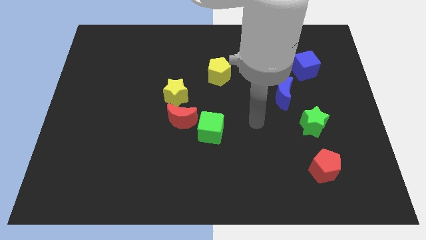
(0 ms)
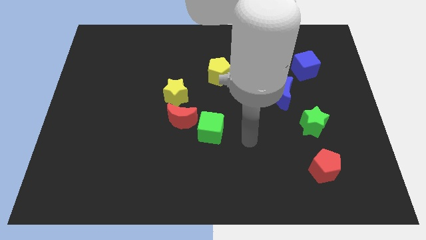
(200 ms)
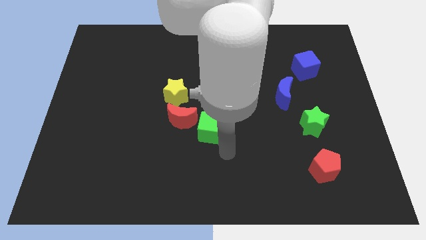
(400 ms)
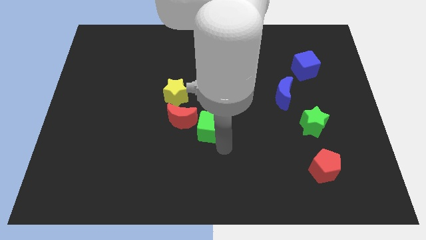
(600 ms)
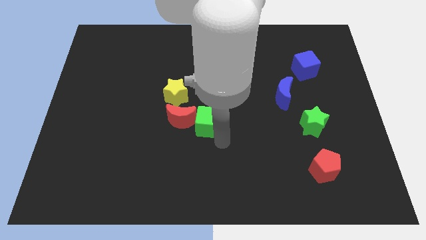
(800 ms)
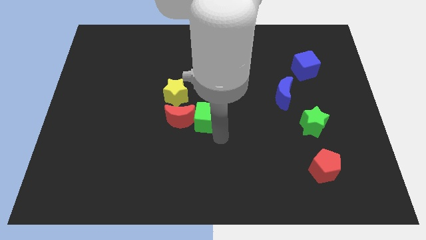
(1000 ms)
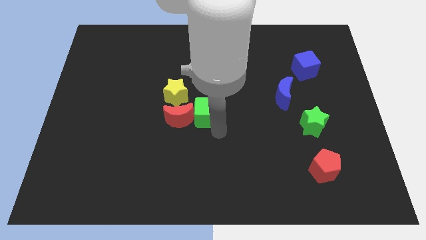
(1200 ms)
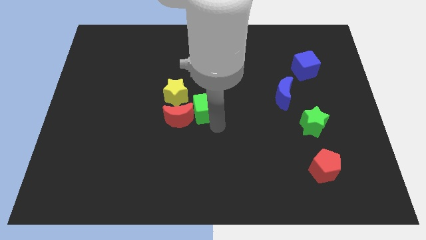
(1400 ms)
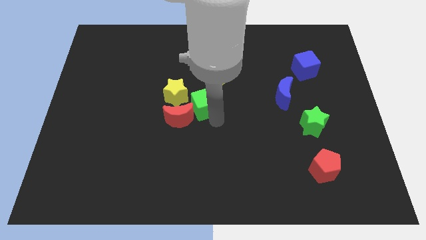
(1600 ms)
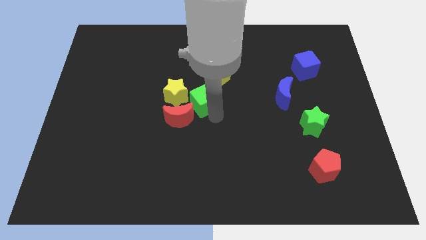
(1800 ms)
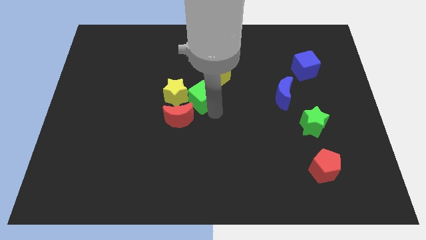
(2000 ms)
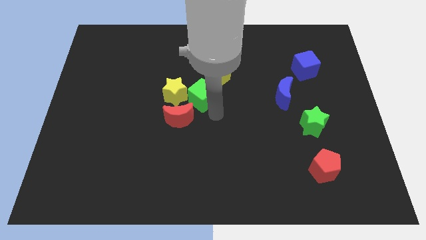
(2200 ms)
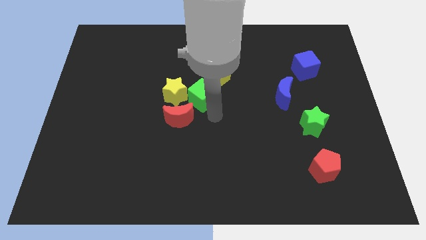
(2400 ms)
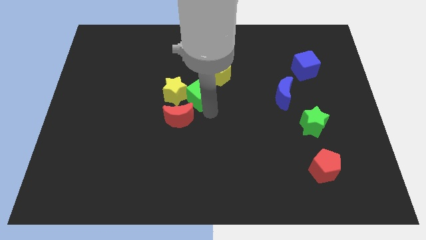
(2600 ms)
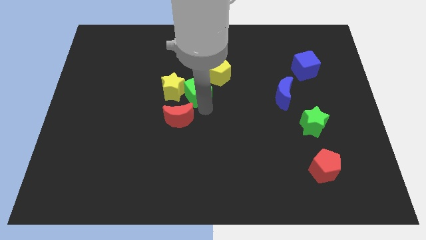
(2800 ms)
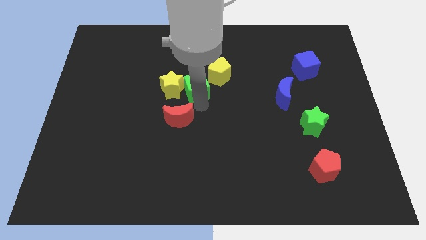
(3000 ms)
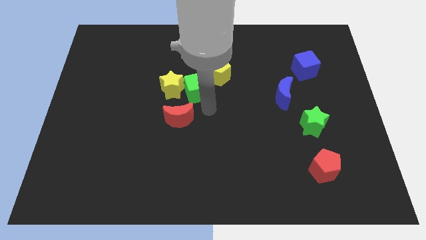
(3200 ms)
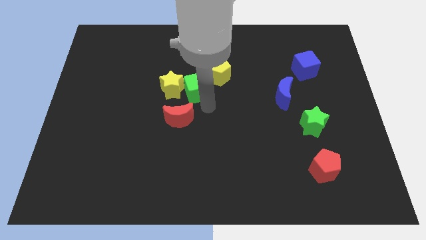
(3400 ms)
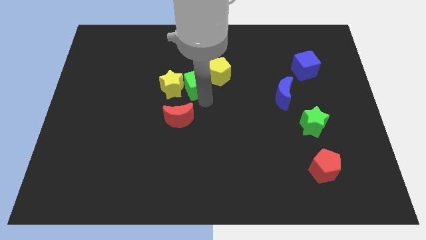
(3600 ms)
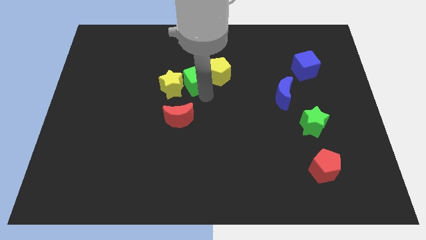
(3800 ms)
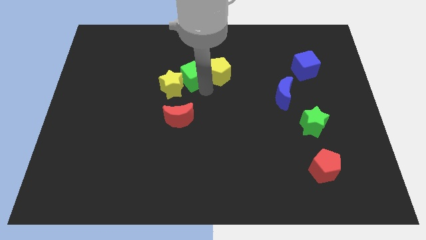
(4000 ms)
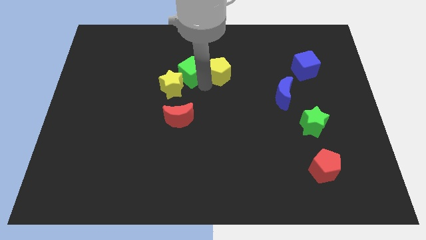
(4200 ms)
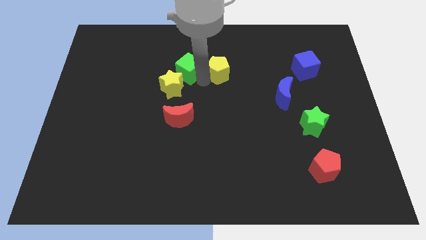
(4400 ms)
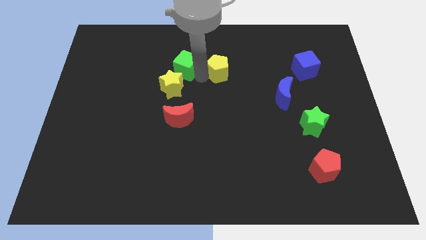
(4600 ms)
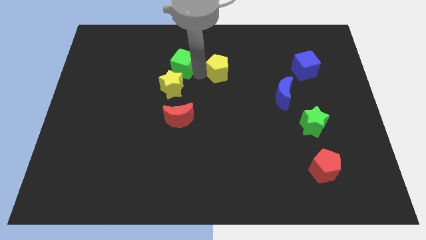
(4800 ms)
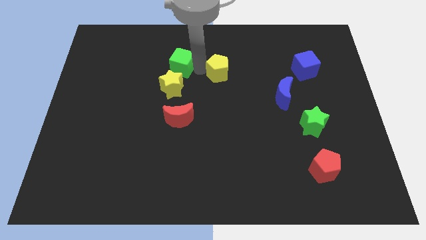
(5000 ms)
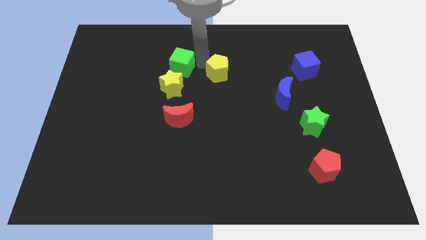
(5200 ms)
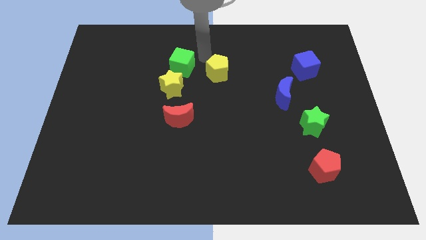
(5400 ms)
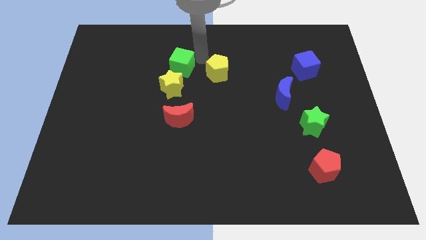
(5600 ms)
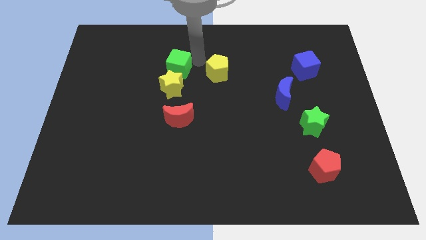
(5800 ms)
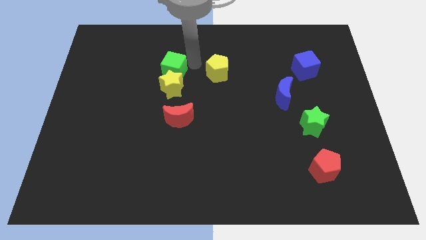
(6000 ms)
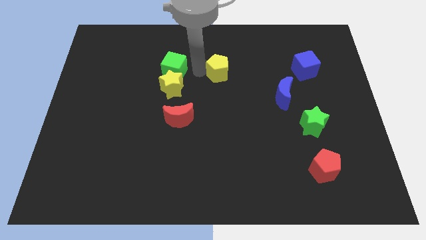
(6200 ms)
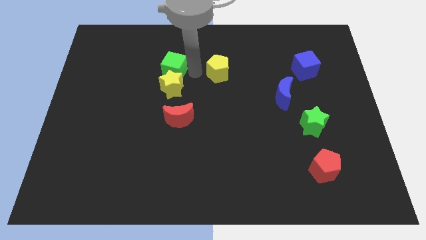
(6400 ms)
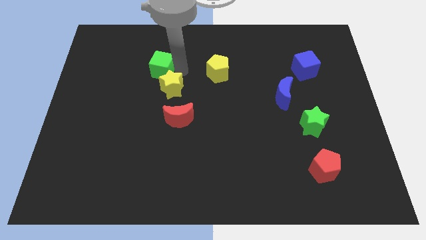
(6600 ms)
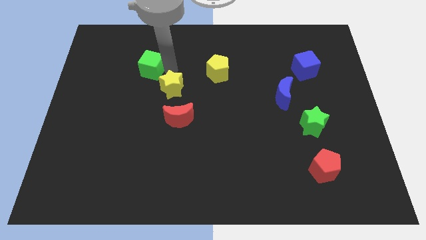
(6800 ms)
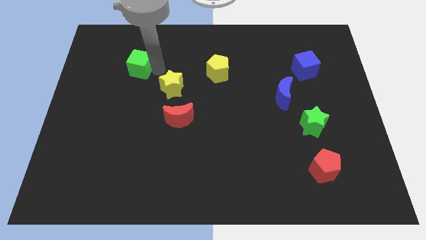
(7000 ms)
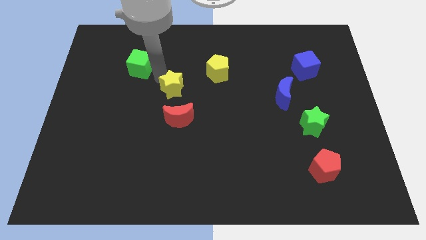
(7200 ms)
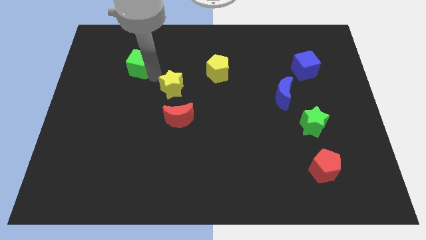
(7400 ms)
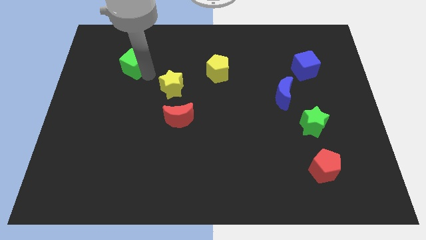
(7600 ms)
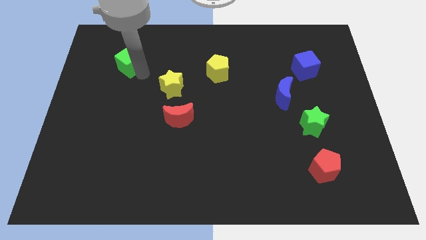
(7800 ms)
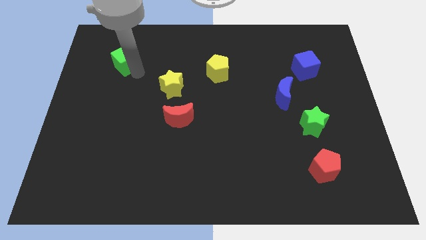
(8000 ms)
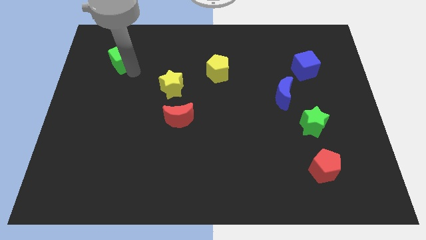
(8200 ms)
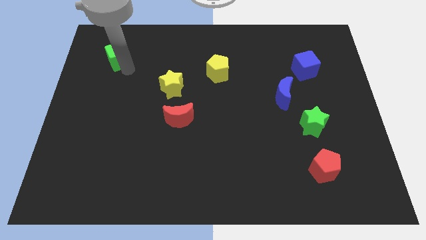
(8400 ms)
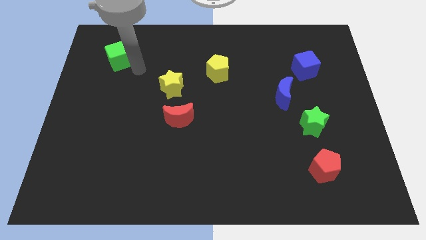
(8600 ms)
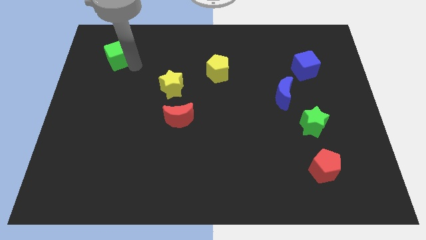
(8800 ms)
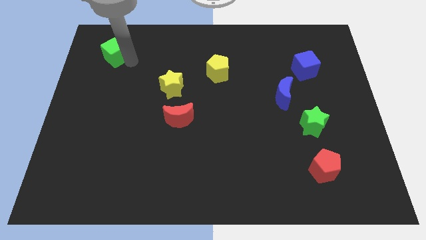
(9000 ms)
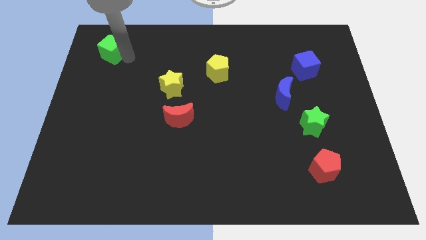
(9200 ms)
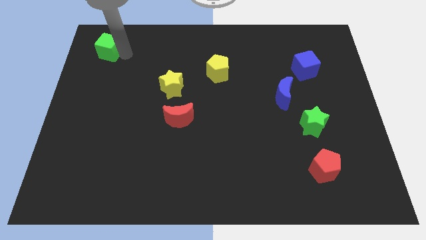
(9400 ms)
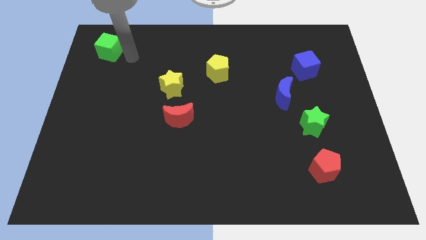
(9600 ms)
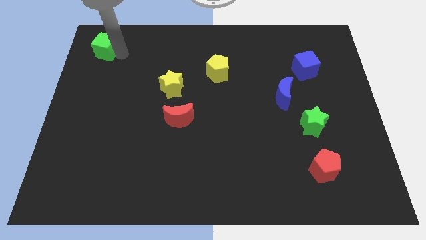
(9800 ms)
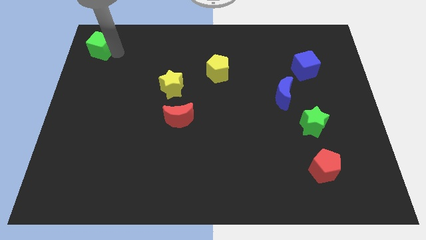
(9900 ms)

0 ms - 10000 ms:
slide the green cube to the upper left corner

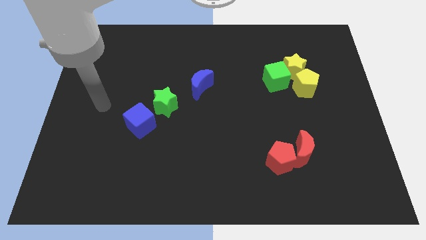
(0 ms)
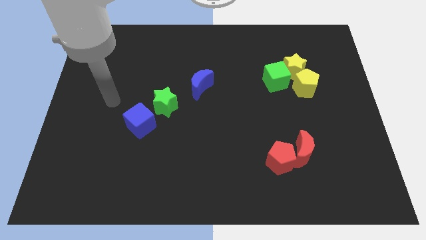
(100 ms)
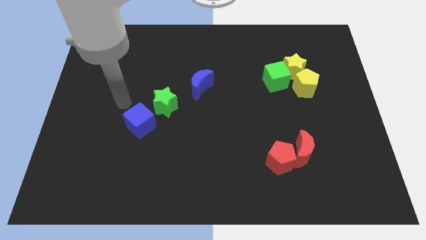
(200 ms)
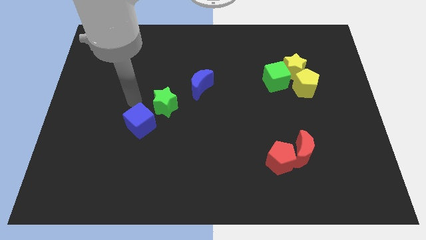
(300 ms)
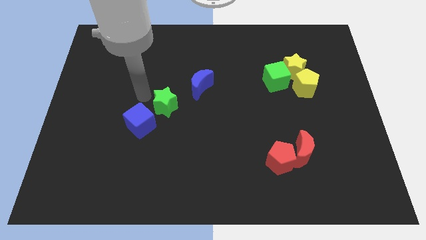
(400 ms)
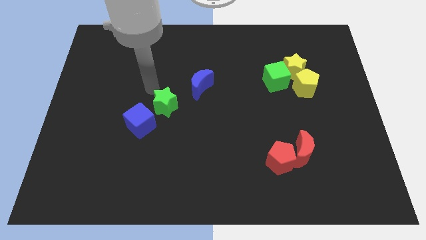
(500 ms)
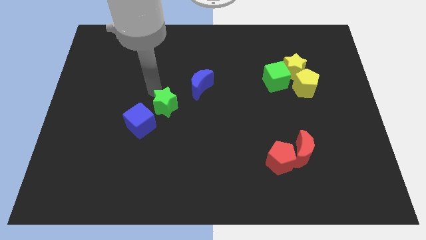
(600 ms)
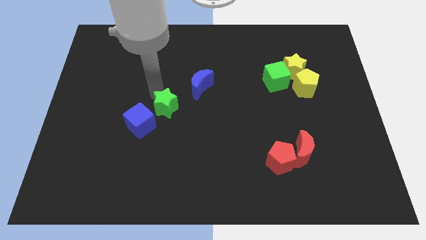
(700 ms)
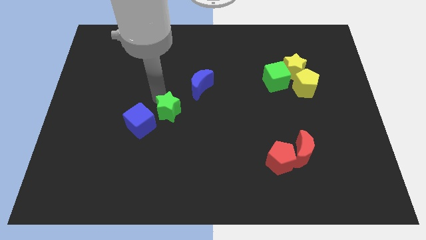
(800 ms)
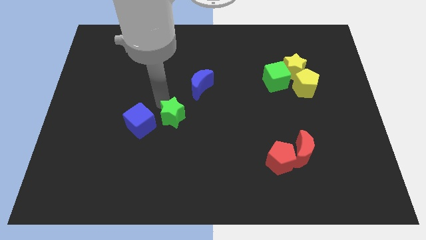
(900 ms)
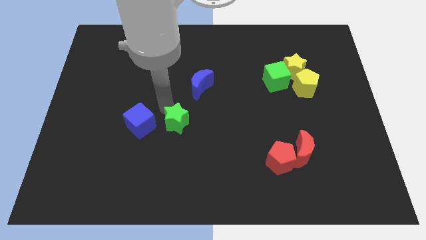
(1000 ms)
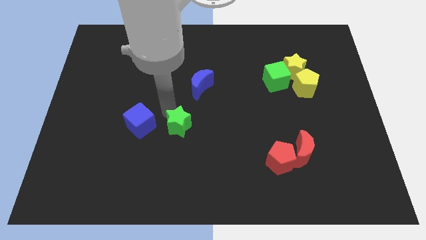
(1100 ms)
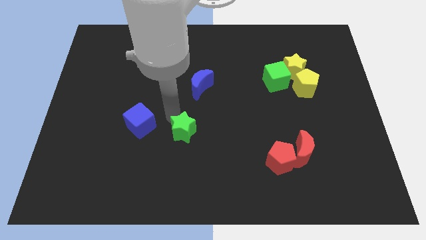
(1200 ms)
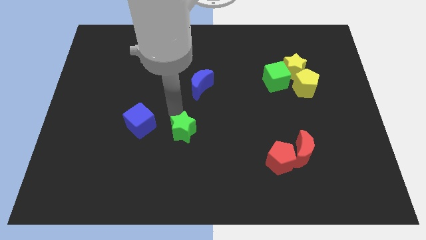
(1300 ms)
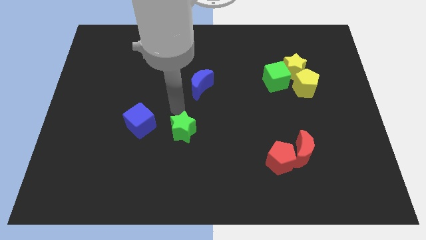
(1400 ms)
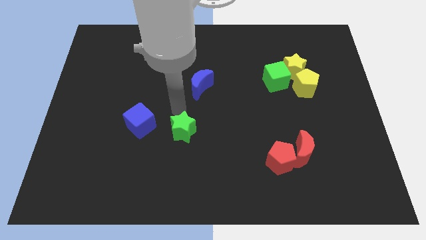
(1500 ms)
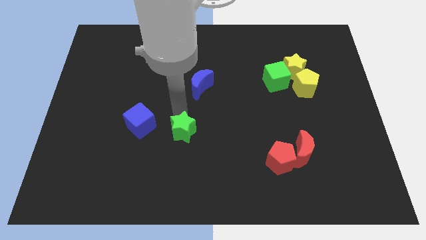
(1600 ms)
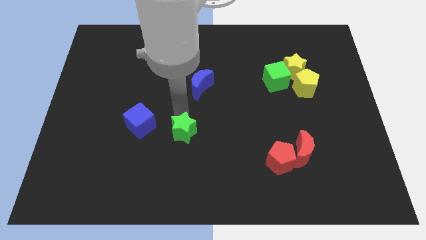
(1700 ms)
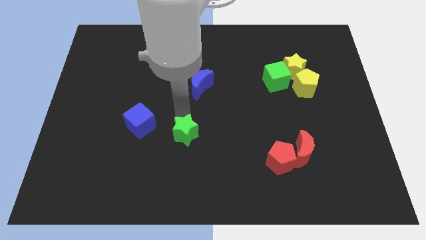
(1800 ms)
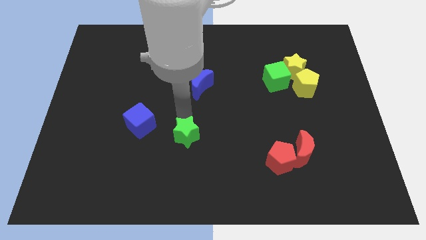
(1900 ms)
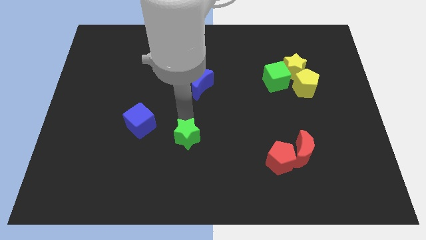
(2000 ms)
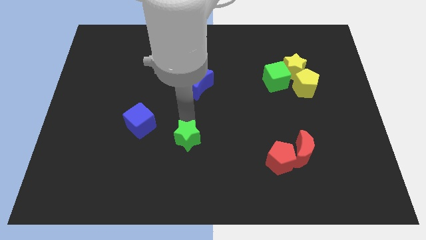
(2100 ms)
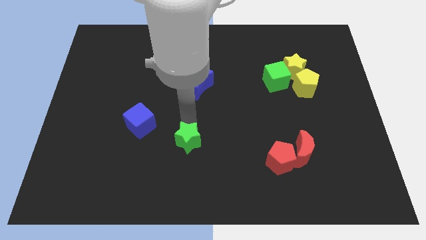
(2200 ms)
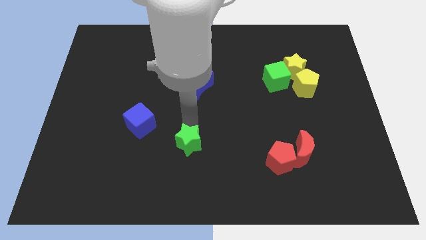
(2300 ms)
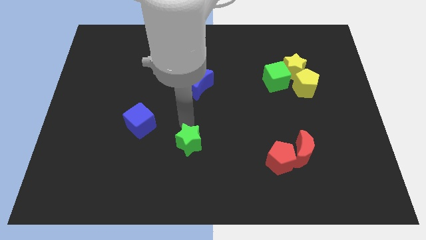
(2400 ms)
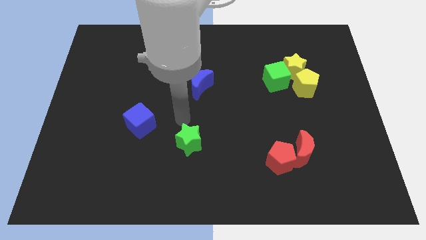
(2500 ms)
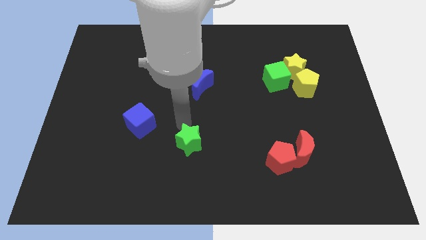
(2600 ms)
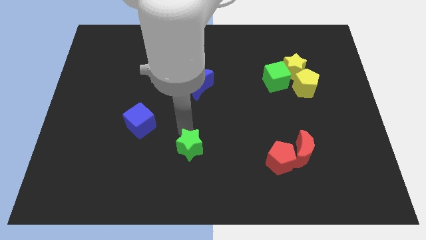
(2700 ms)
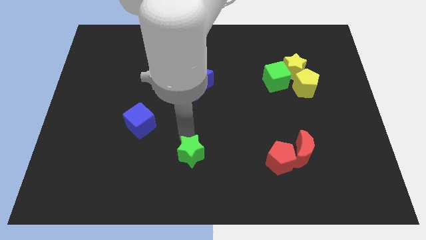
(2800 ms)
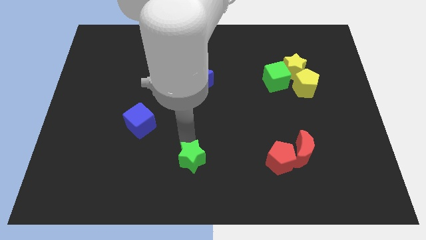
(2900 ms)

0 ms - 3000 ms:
slide the green star to the bottom
